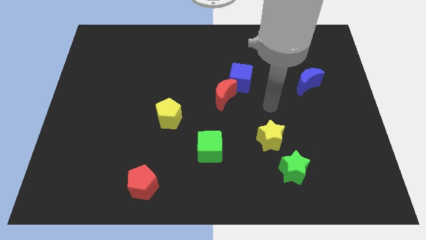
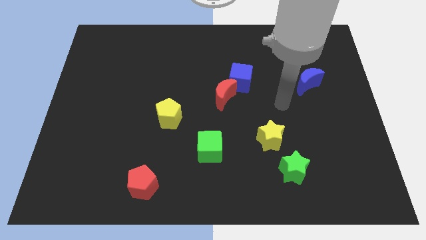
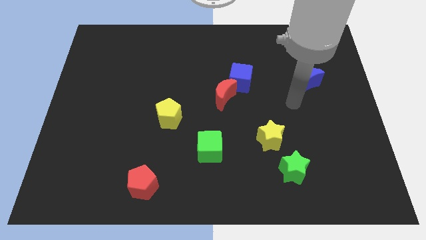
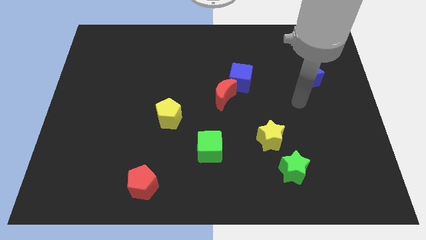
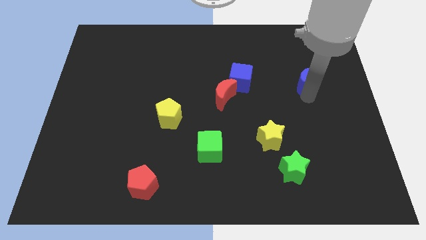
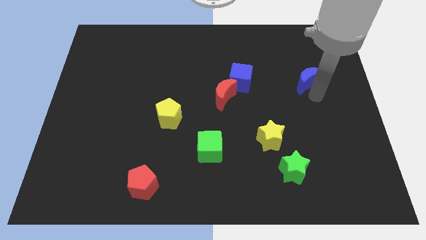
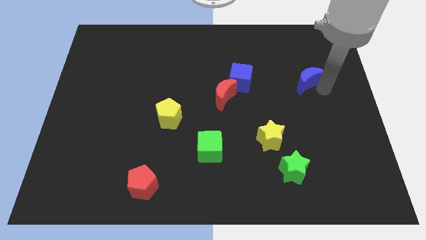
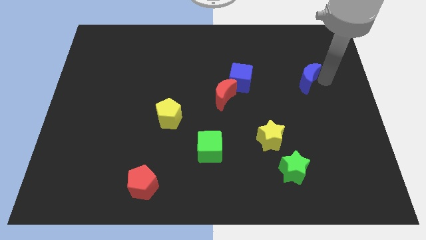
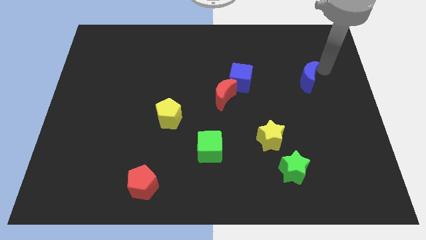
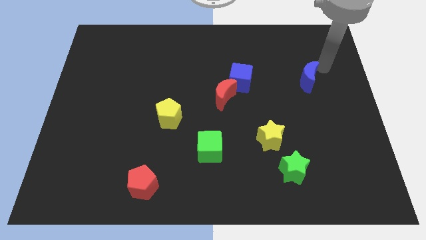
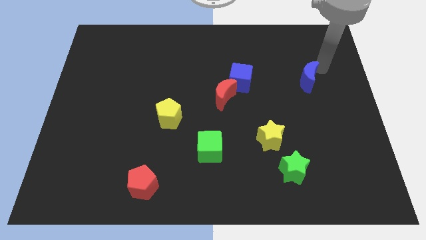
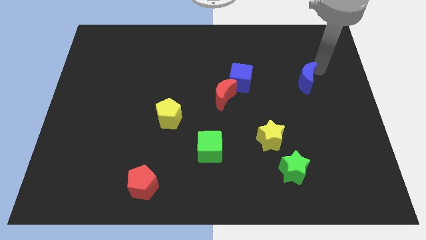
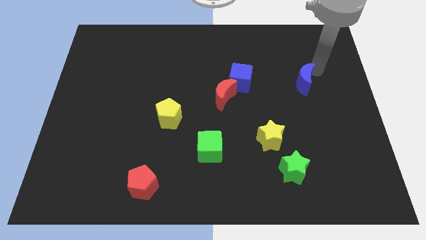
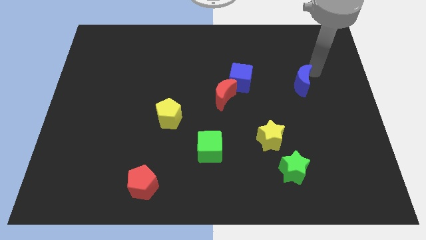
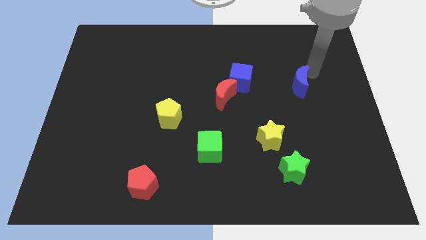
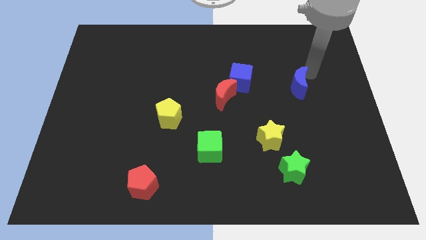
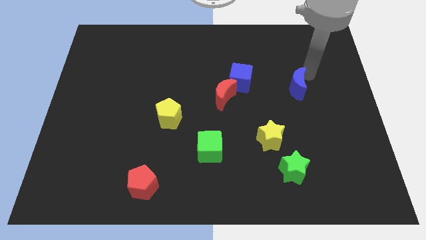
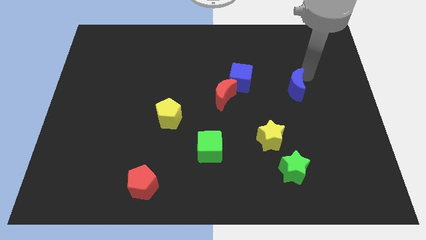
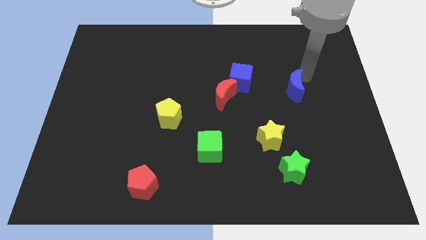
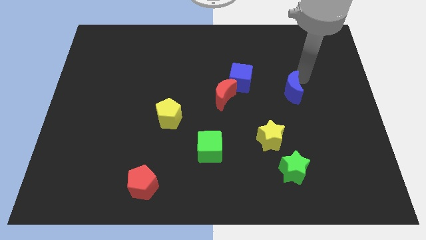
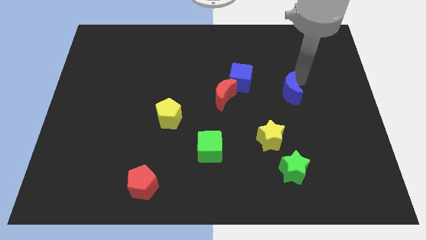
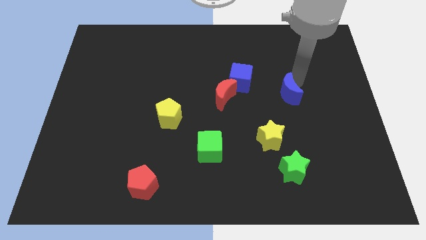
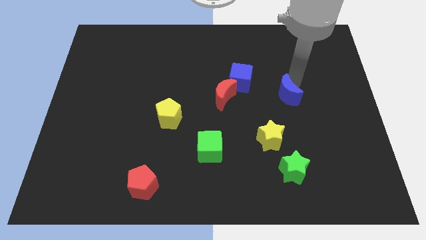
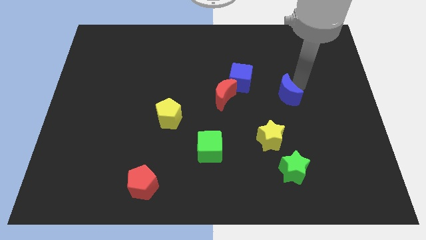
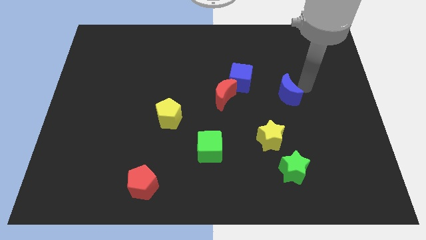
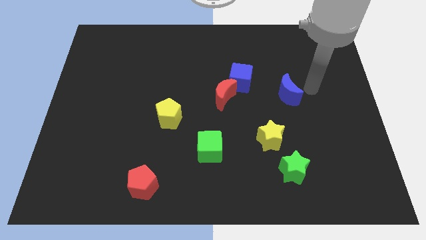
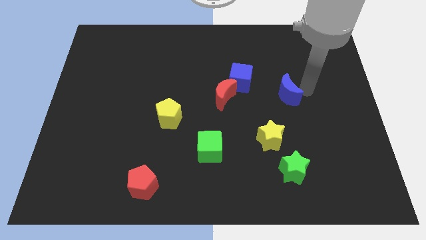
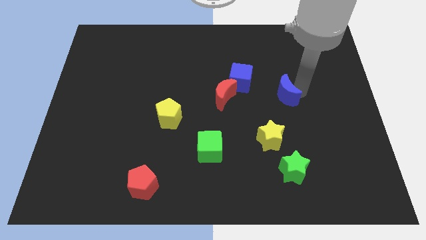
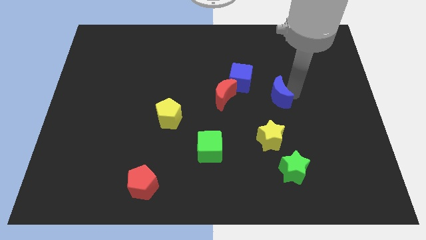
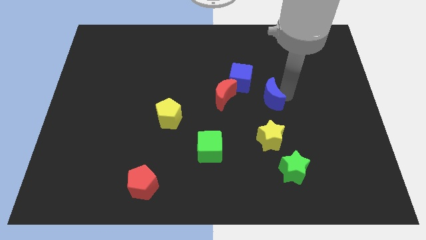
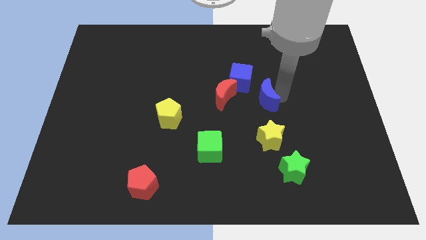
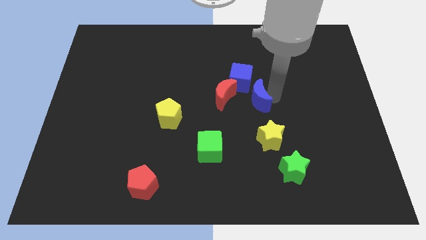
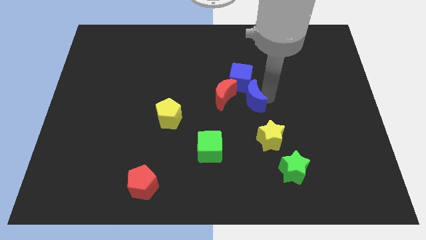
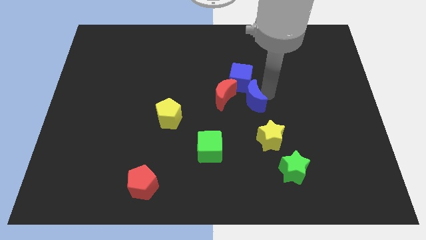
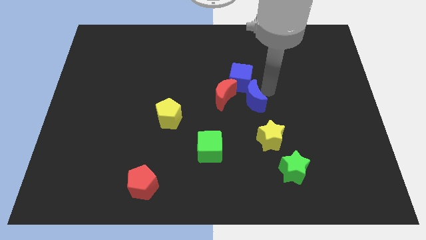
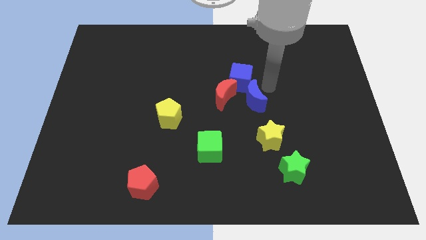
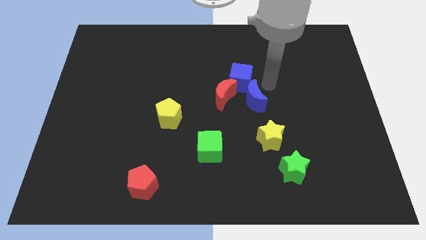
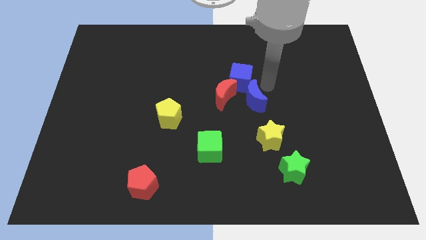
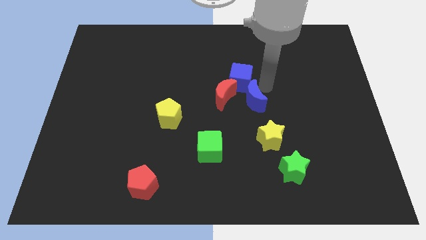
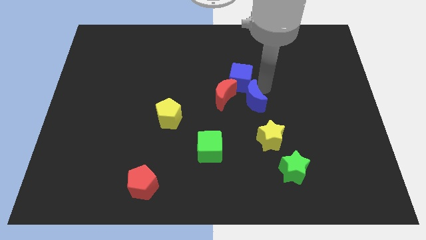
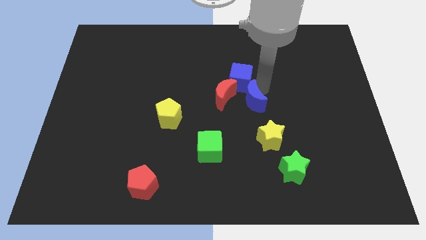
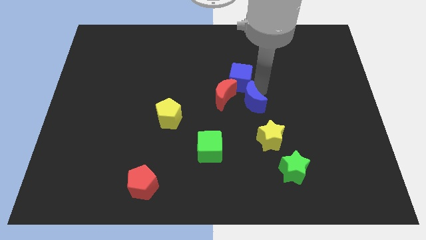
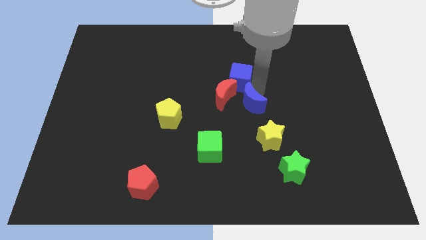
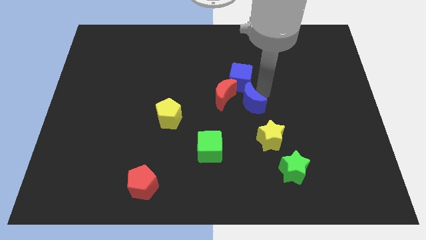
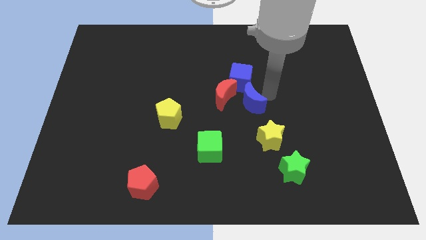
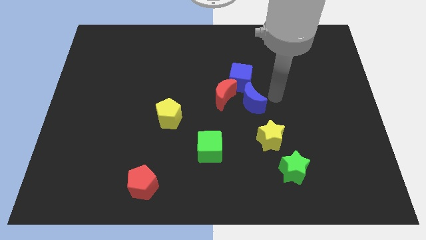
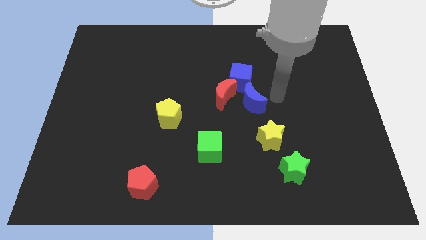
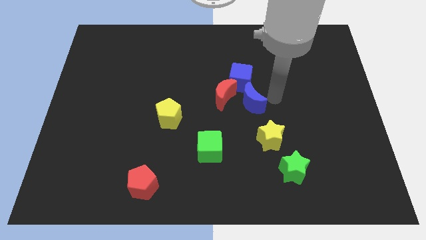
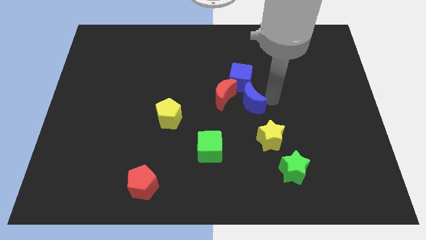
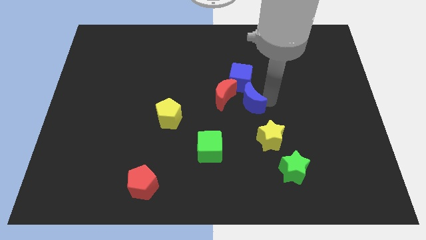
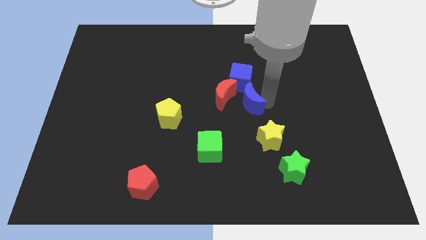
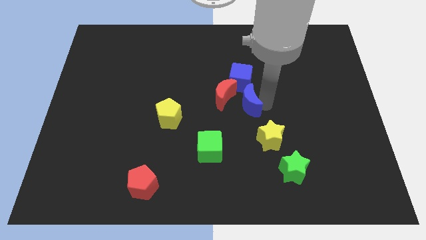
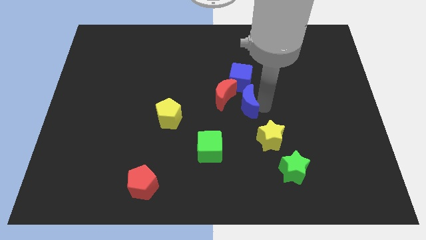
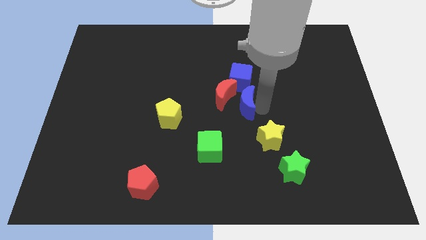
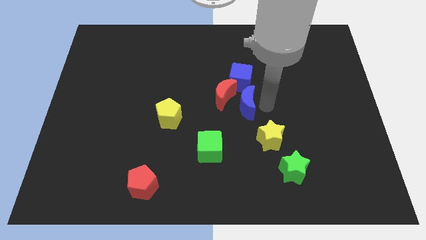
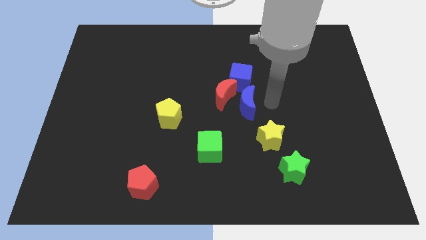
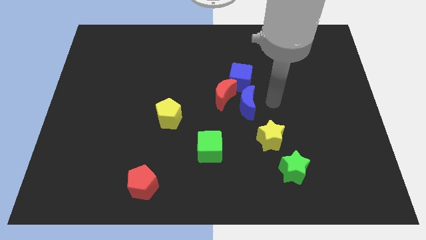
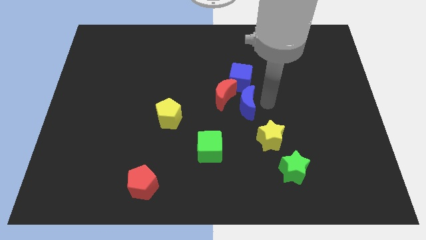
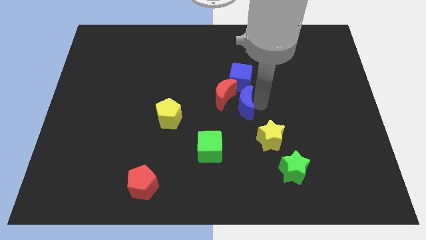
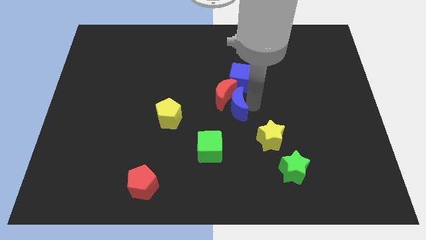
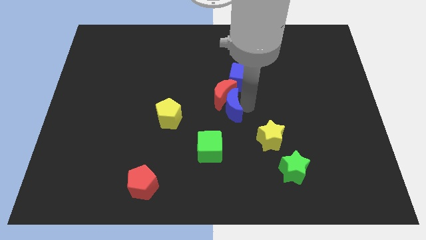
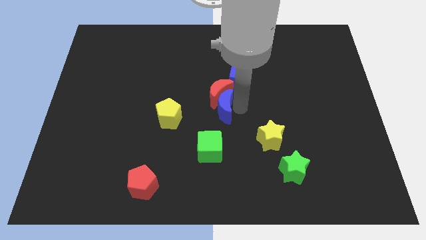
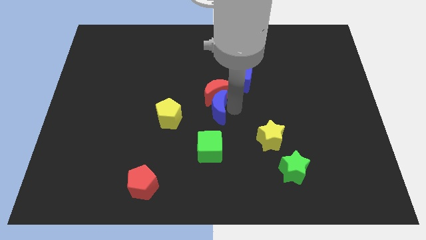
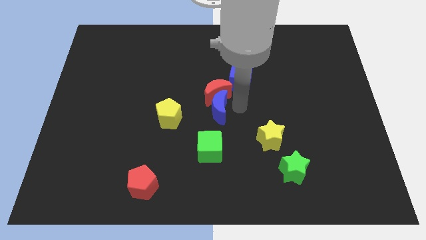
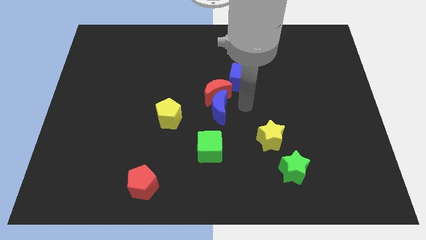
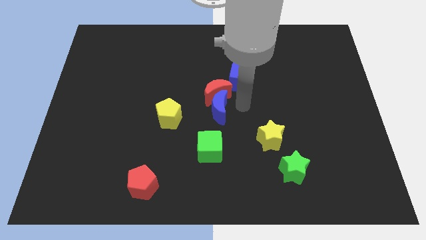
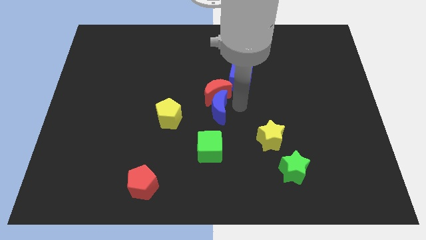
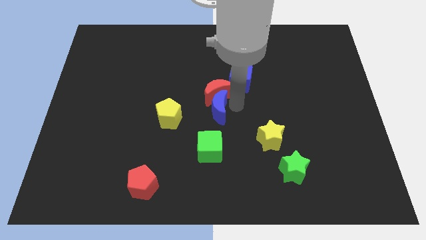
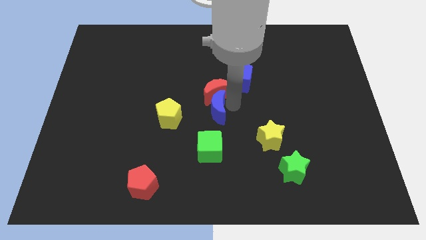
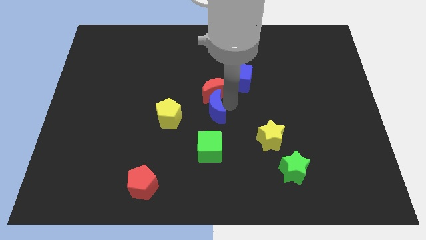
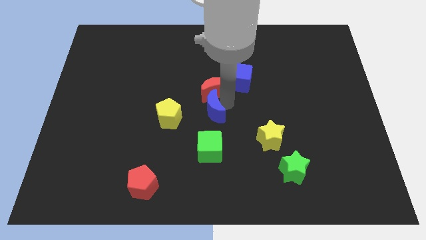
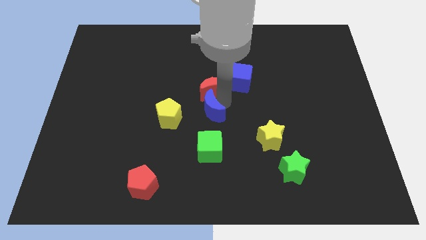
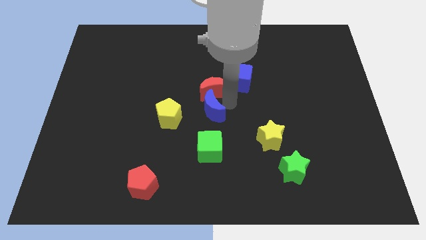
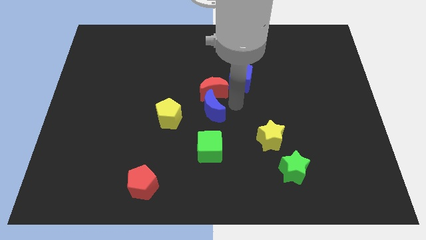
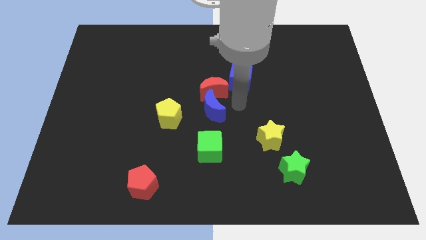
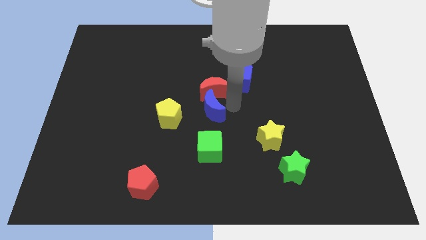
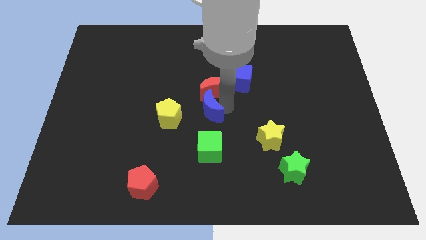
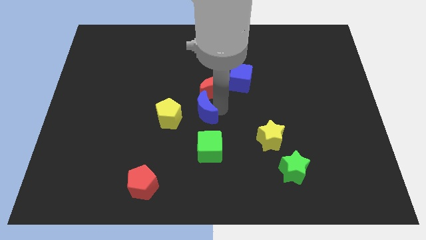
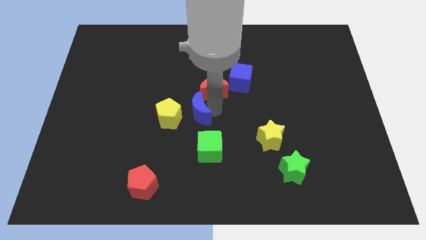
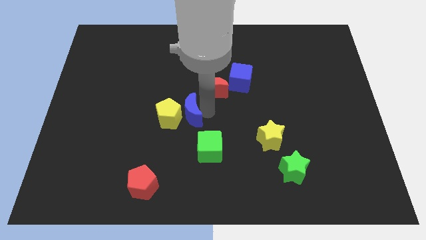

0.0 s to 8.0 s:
slide the blue moon towards the yellow pentagon
